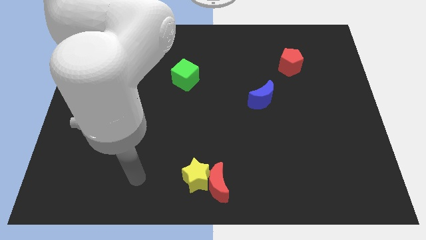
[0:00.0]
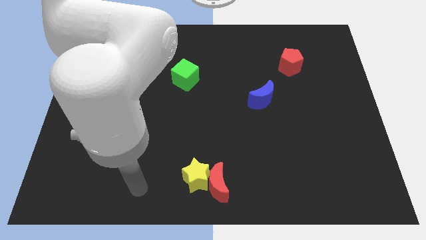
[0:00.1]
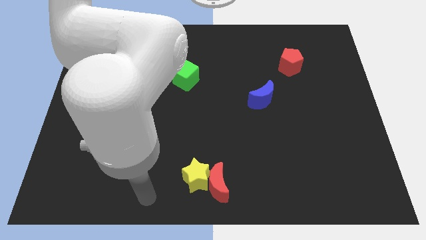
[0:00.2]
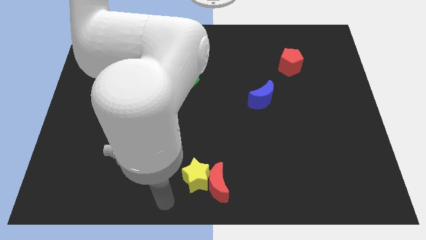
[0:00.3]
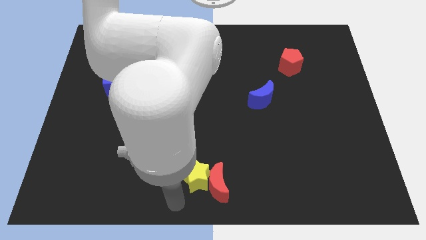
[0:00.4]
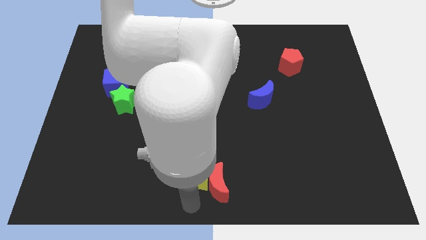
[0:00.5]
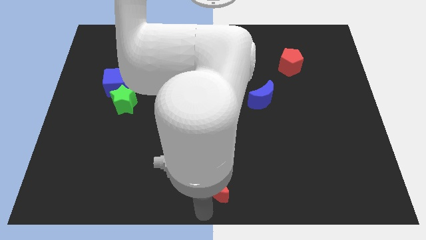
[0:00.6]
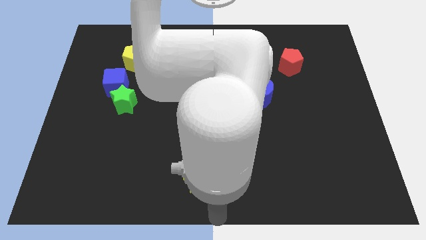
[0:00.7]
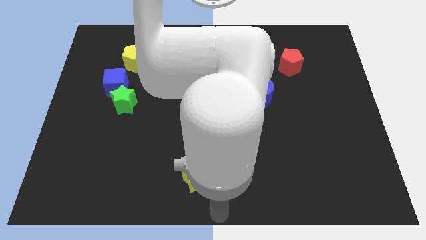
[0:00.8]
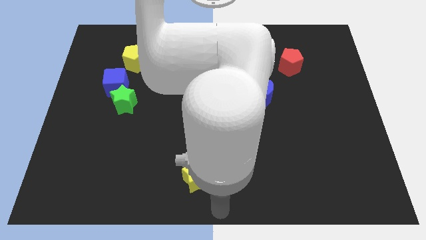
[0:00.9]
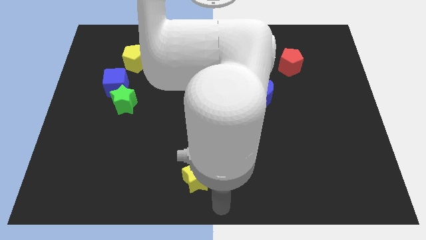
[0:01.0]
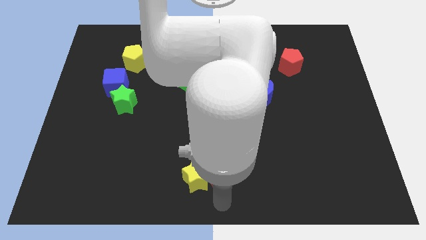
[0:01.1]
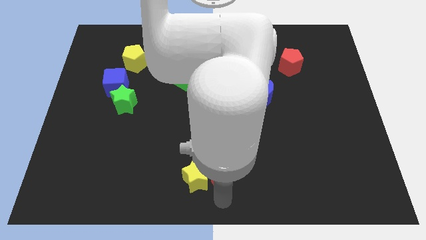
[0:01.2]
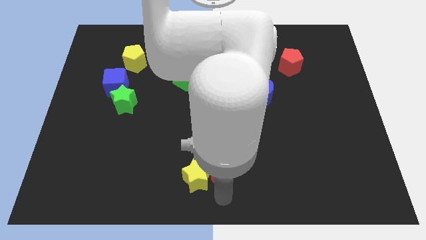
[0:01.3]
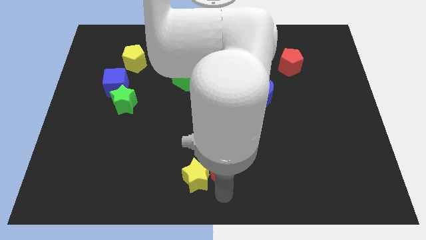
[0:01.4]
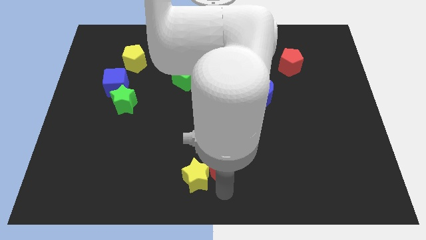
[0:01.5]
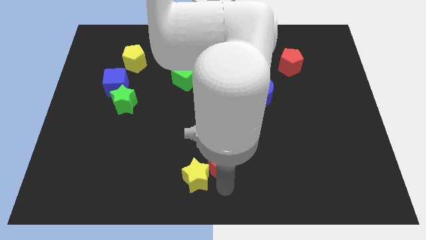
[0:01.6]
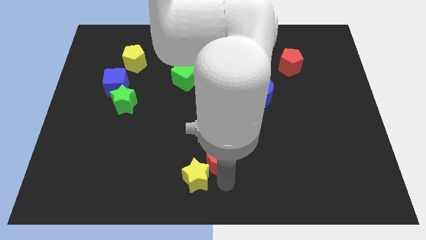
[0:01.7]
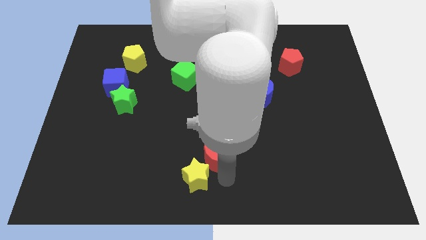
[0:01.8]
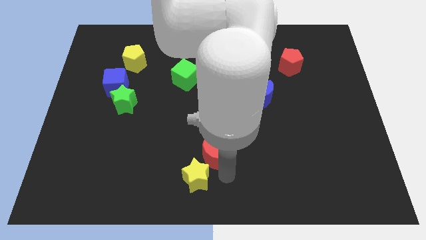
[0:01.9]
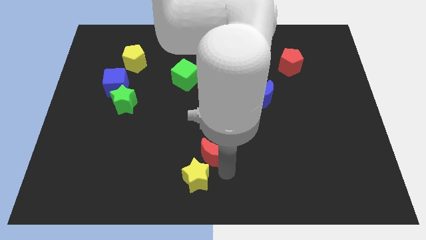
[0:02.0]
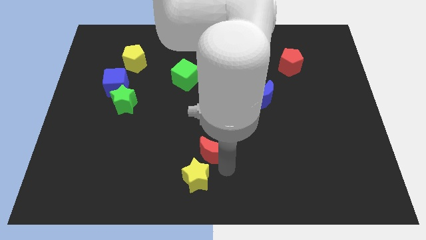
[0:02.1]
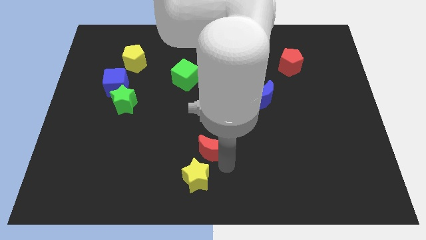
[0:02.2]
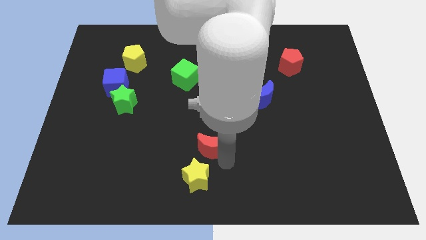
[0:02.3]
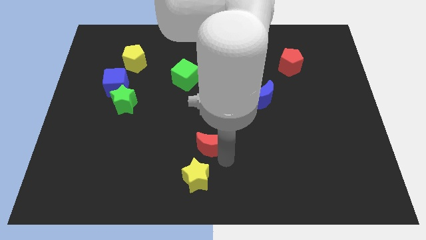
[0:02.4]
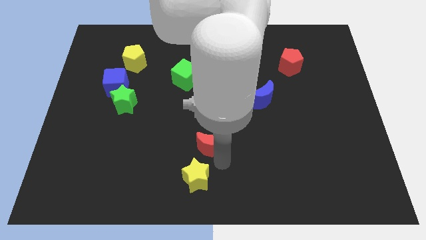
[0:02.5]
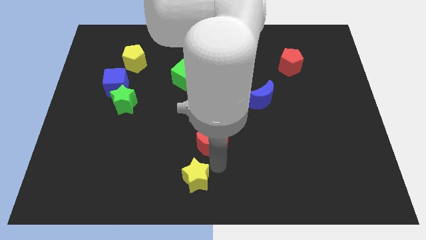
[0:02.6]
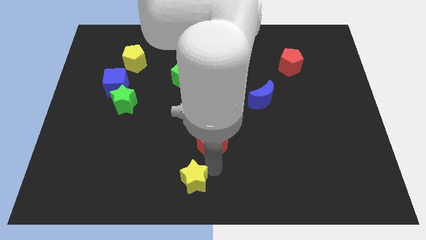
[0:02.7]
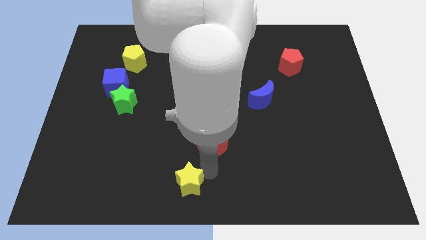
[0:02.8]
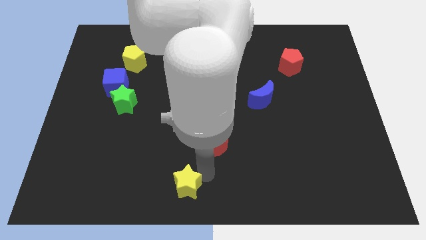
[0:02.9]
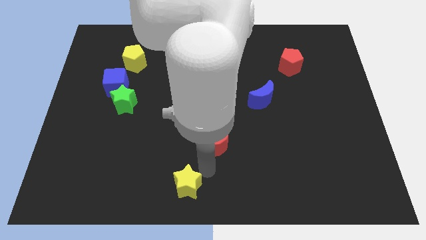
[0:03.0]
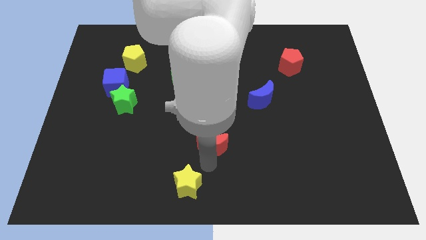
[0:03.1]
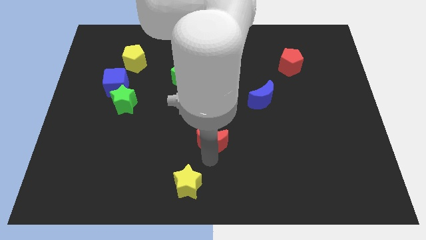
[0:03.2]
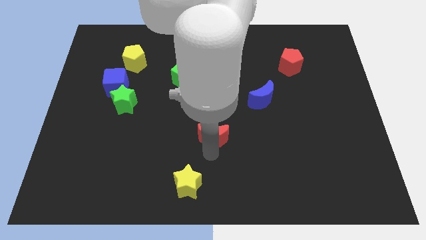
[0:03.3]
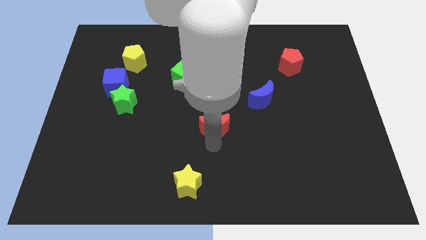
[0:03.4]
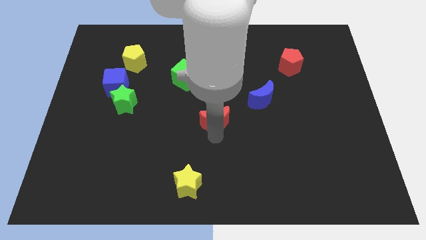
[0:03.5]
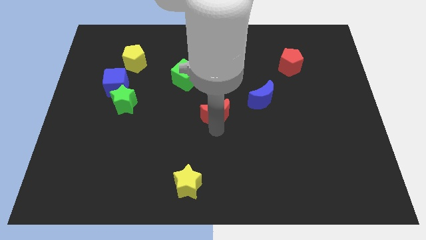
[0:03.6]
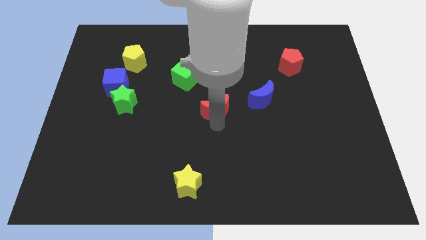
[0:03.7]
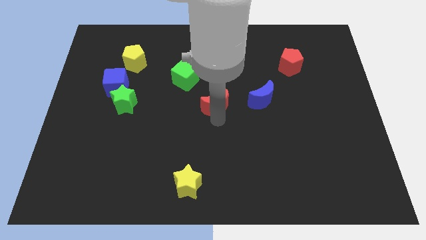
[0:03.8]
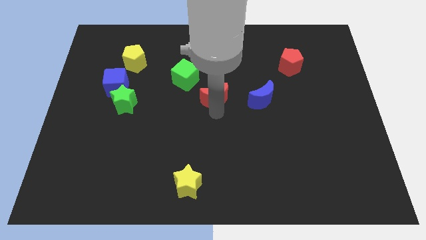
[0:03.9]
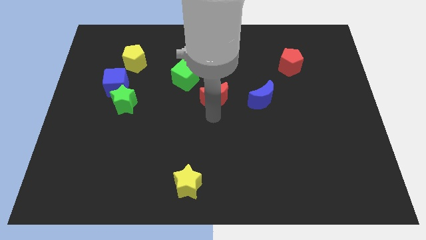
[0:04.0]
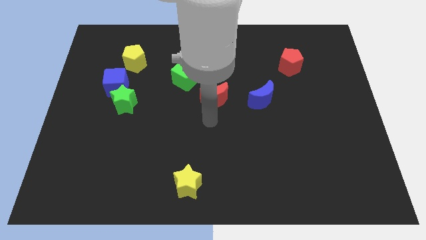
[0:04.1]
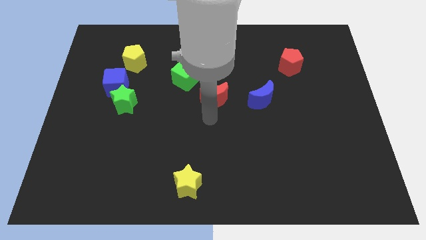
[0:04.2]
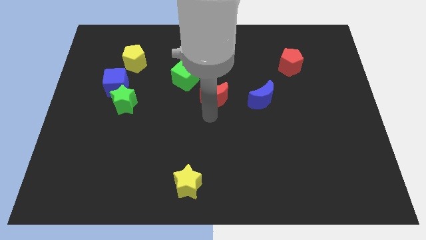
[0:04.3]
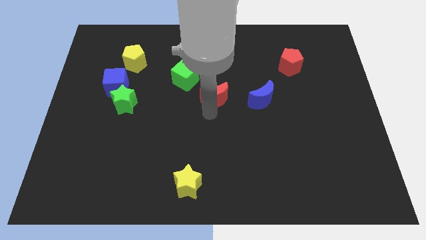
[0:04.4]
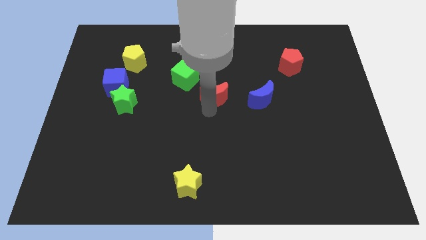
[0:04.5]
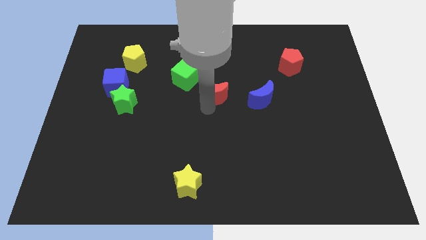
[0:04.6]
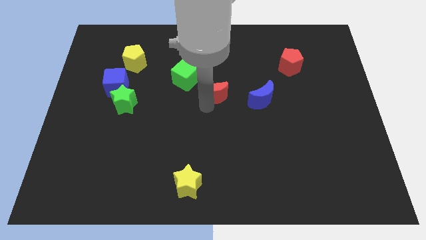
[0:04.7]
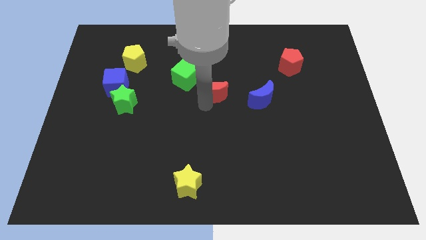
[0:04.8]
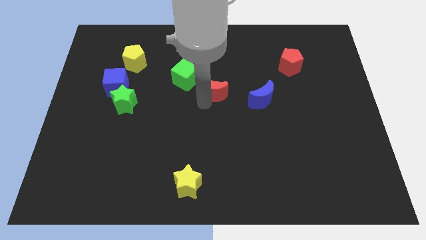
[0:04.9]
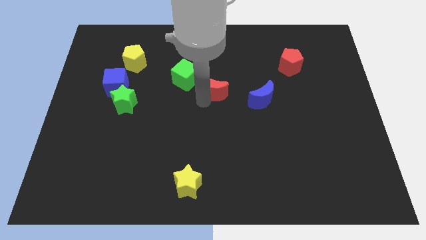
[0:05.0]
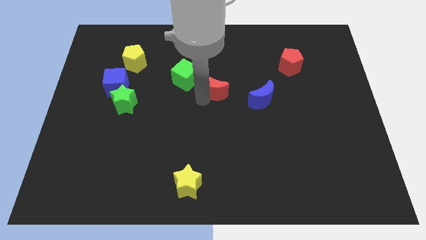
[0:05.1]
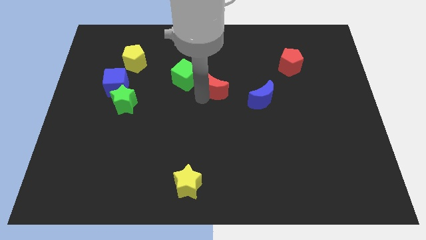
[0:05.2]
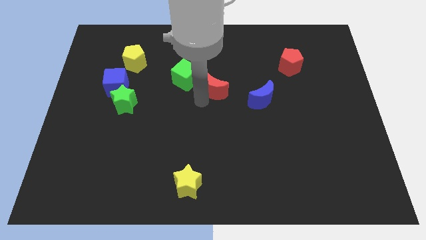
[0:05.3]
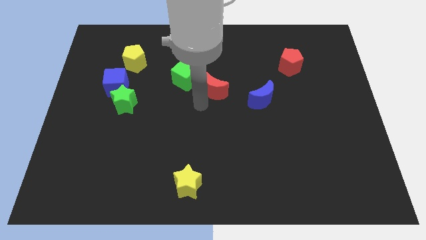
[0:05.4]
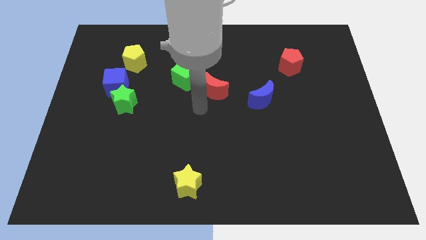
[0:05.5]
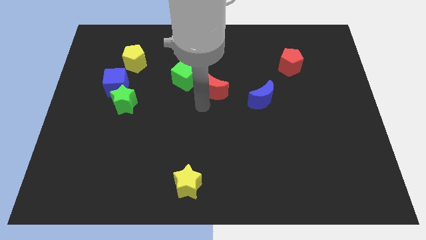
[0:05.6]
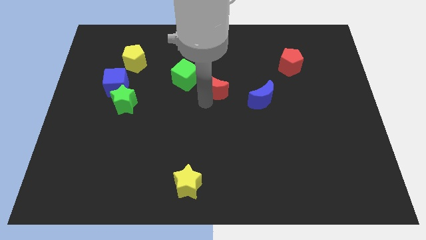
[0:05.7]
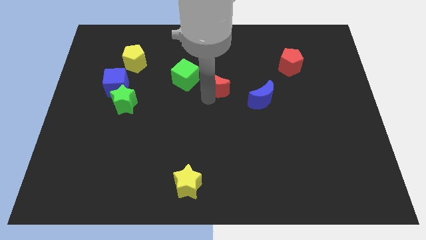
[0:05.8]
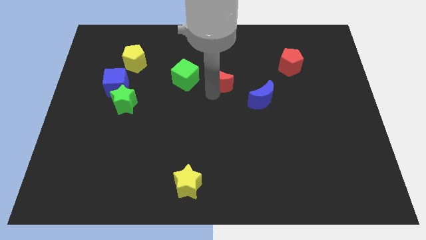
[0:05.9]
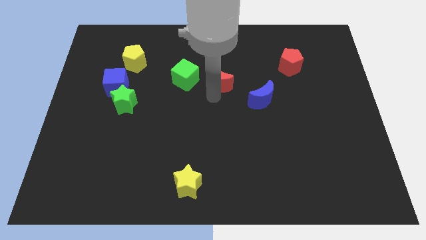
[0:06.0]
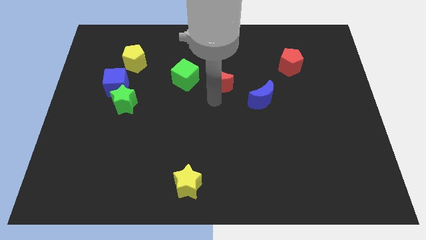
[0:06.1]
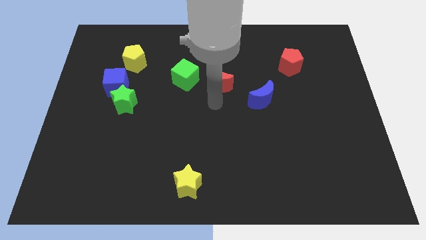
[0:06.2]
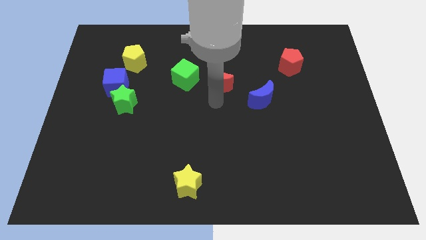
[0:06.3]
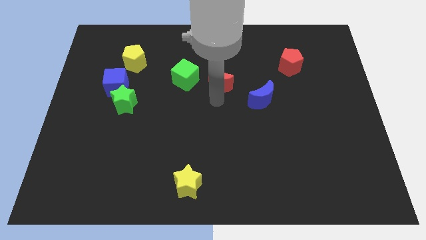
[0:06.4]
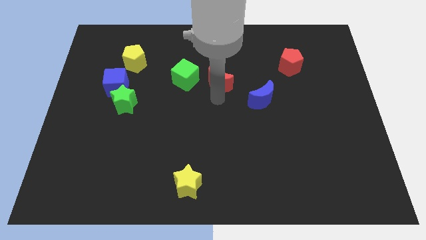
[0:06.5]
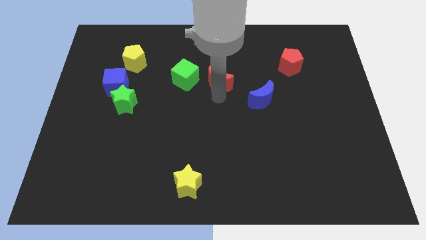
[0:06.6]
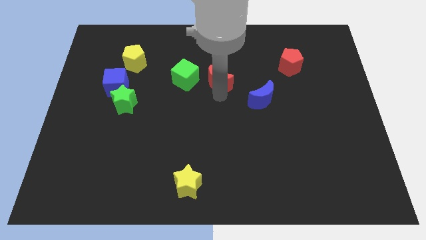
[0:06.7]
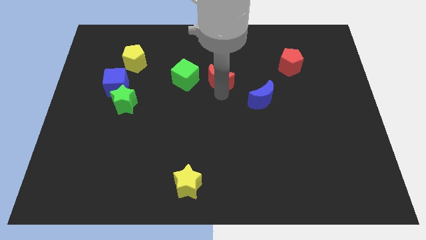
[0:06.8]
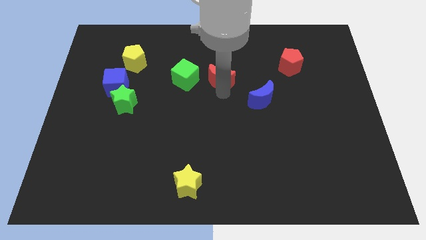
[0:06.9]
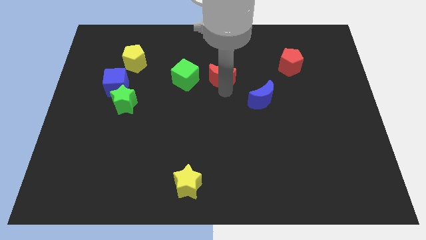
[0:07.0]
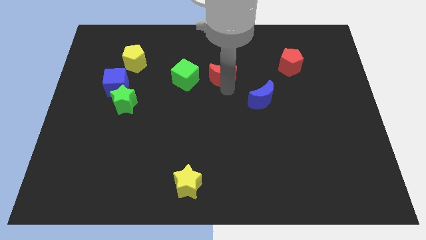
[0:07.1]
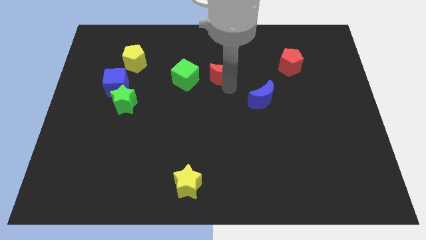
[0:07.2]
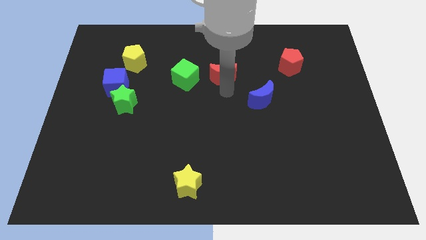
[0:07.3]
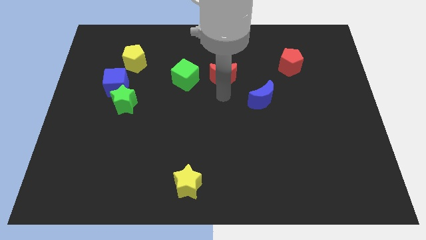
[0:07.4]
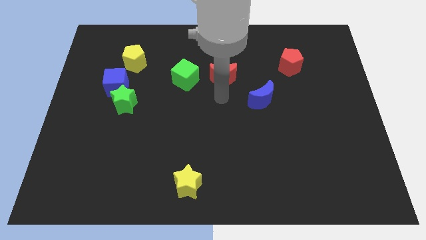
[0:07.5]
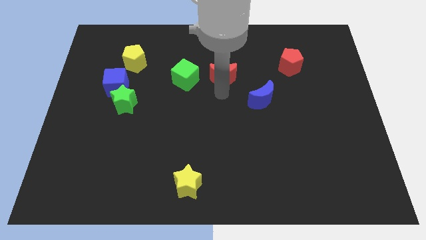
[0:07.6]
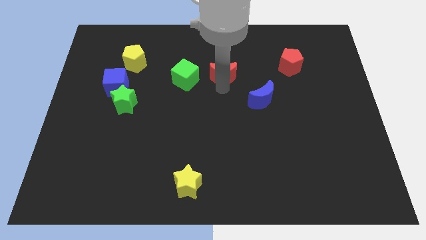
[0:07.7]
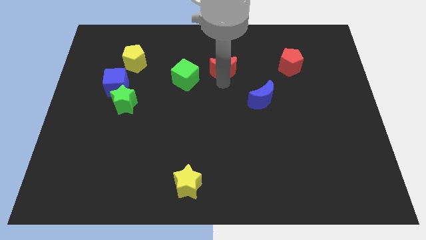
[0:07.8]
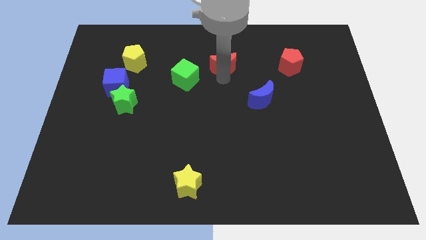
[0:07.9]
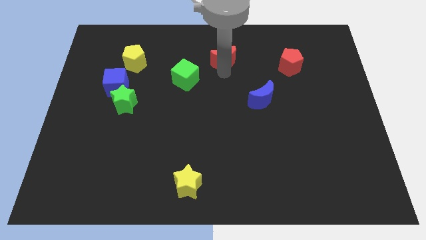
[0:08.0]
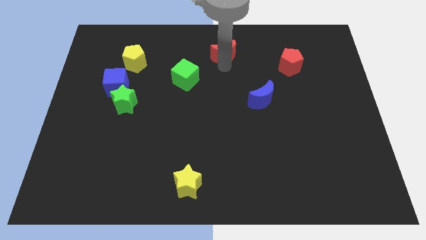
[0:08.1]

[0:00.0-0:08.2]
move the red moon to the top side
